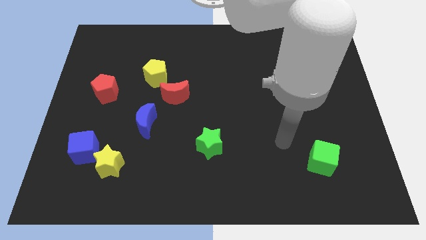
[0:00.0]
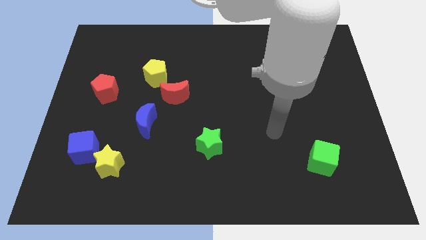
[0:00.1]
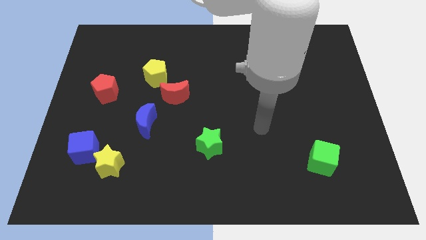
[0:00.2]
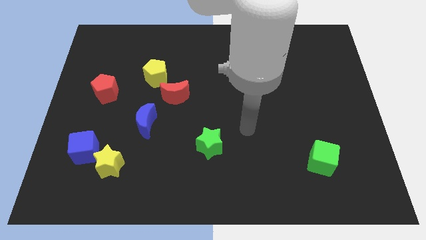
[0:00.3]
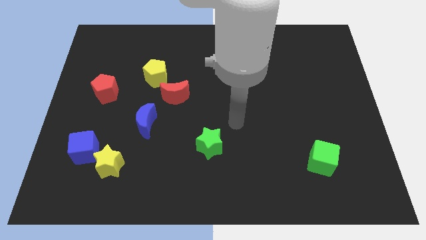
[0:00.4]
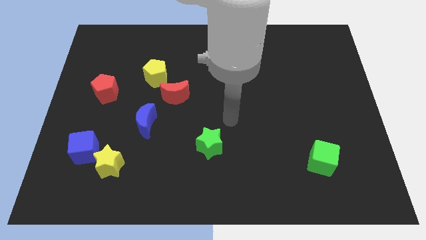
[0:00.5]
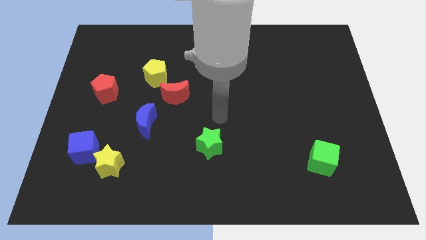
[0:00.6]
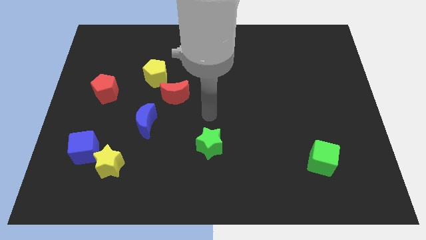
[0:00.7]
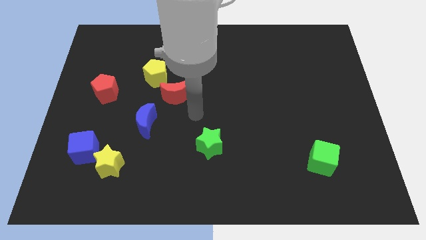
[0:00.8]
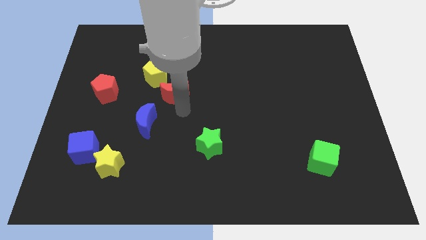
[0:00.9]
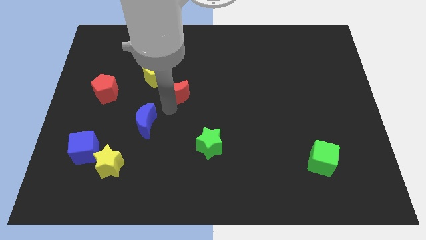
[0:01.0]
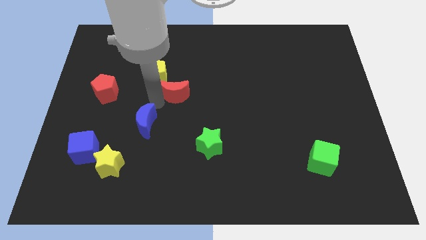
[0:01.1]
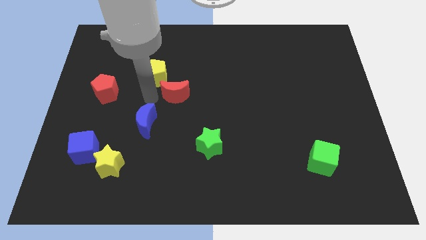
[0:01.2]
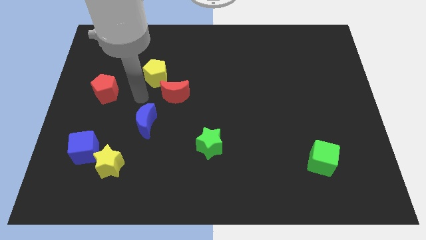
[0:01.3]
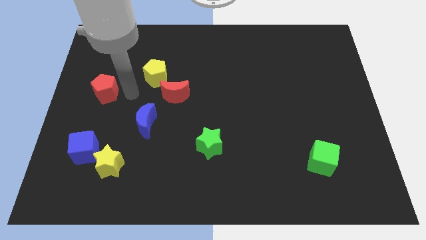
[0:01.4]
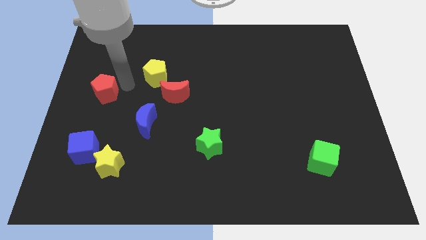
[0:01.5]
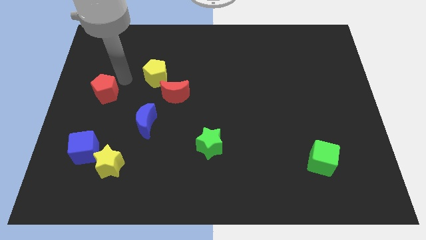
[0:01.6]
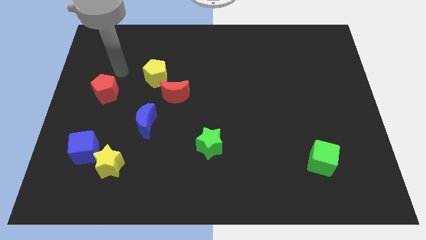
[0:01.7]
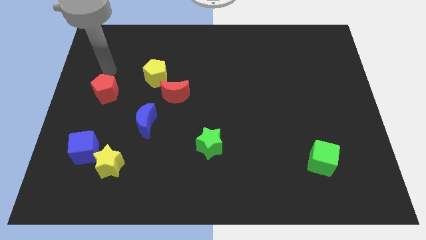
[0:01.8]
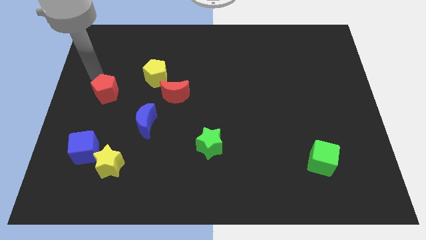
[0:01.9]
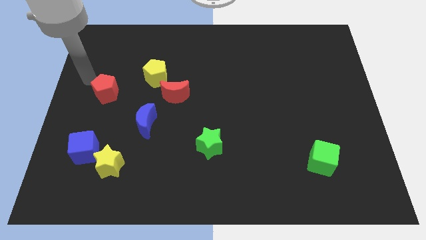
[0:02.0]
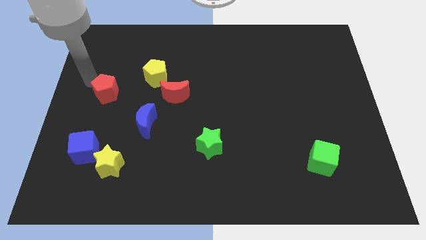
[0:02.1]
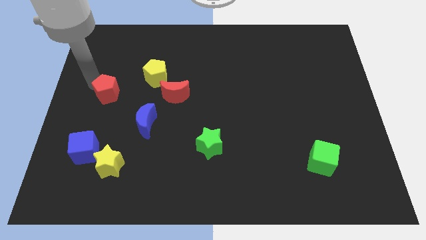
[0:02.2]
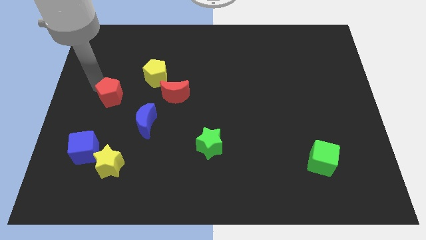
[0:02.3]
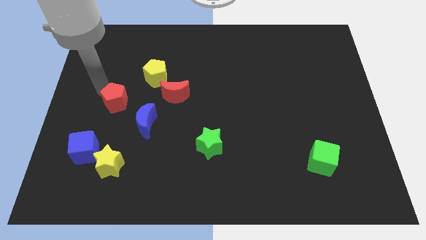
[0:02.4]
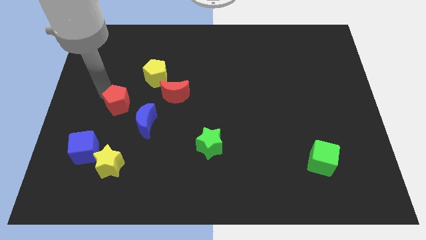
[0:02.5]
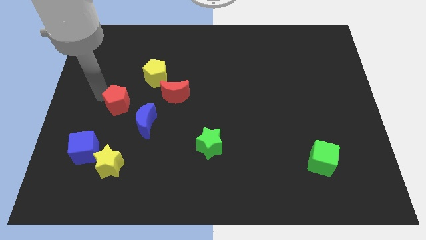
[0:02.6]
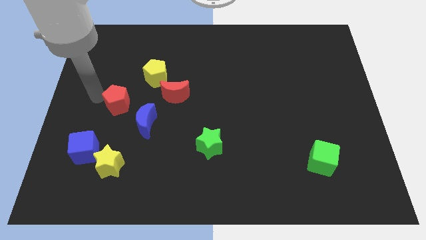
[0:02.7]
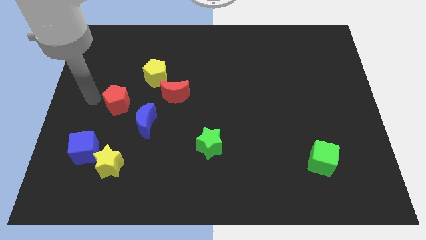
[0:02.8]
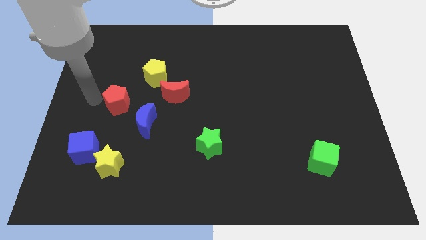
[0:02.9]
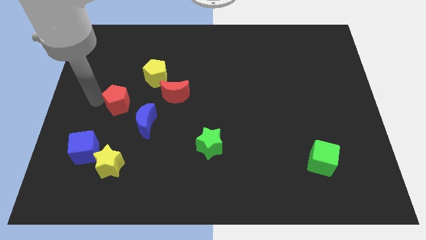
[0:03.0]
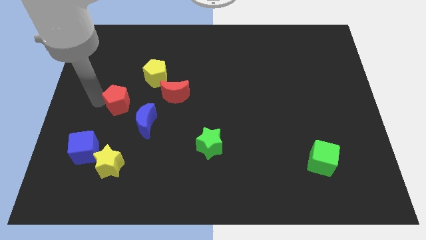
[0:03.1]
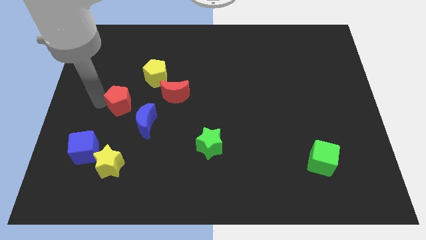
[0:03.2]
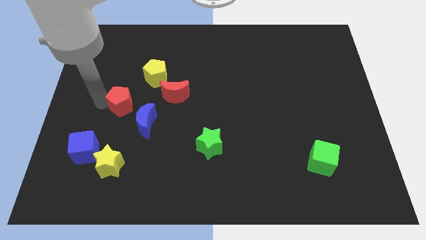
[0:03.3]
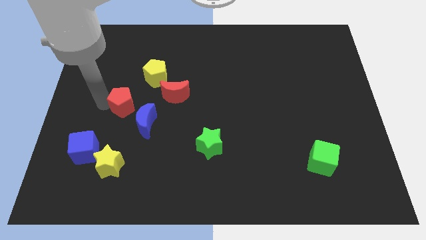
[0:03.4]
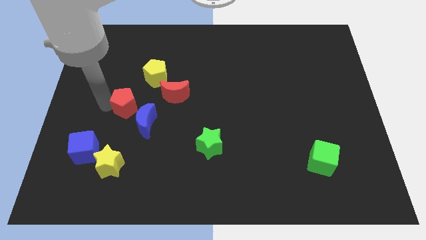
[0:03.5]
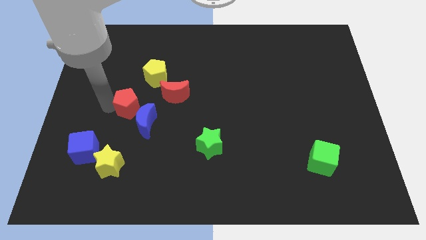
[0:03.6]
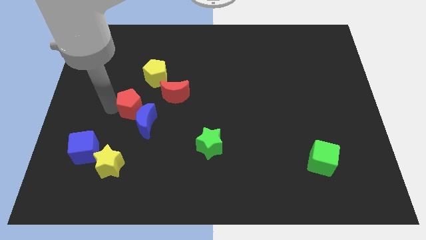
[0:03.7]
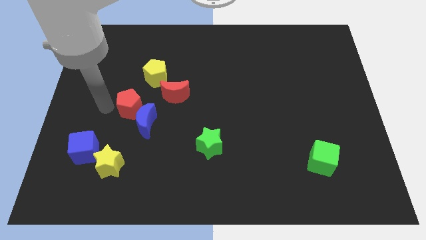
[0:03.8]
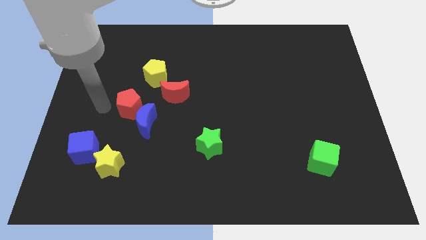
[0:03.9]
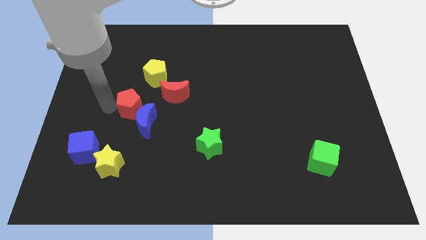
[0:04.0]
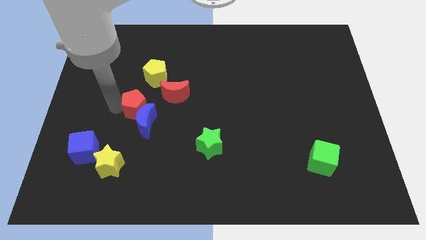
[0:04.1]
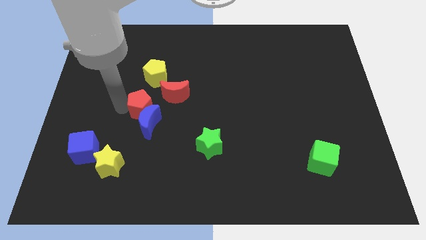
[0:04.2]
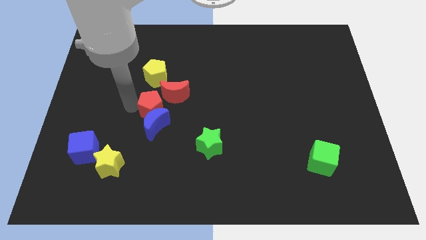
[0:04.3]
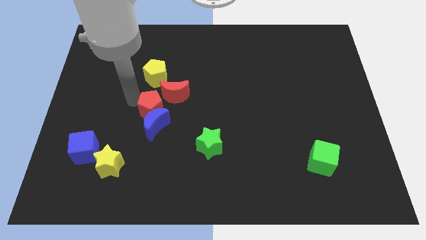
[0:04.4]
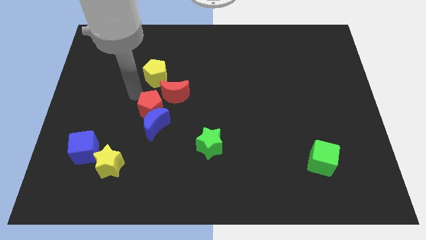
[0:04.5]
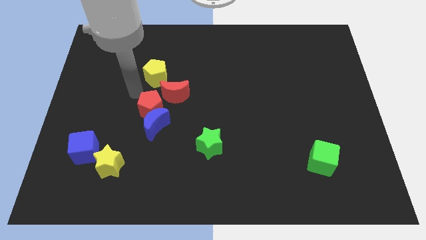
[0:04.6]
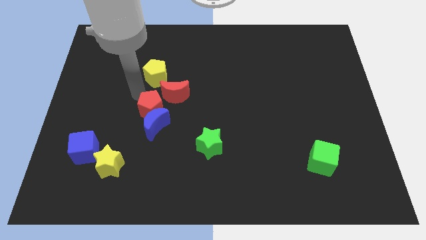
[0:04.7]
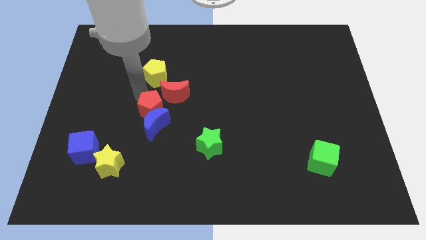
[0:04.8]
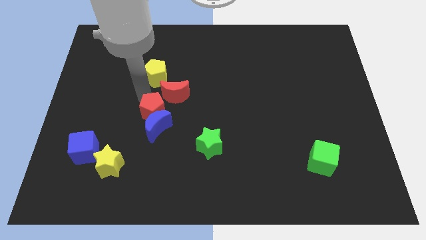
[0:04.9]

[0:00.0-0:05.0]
put the red pentagon below the red moon

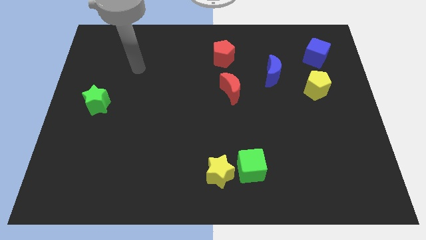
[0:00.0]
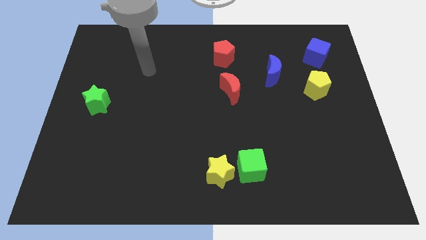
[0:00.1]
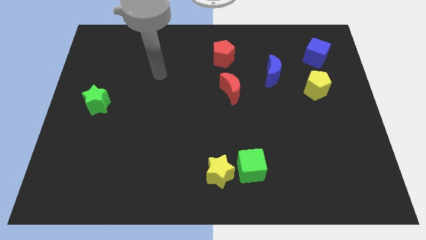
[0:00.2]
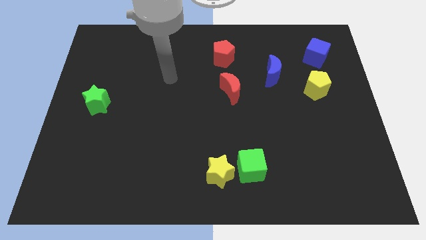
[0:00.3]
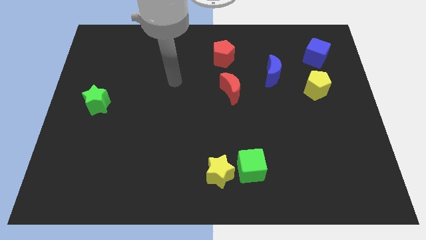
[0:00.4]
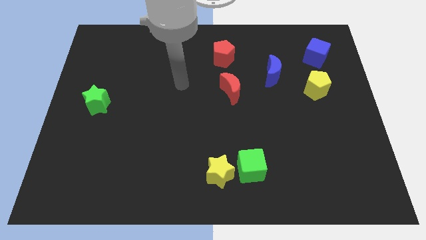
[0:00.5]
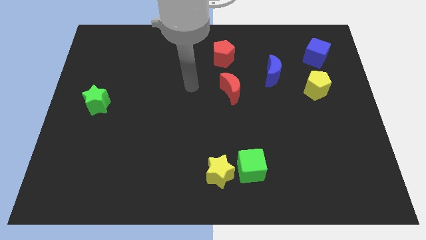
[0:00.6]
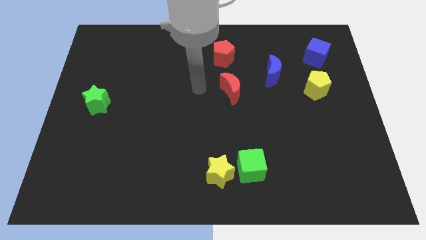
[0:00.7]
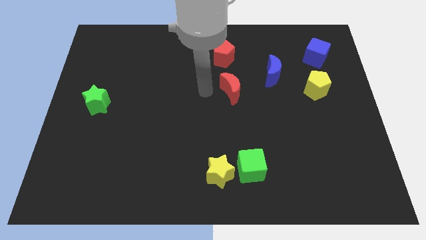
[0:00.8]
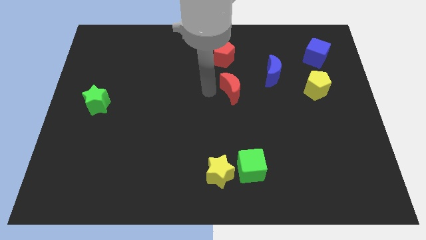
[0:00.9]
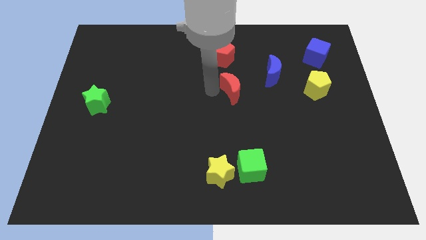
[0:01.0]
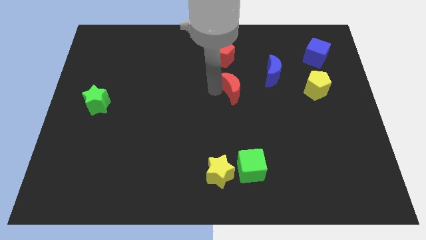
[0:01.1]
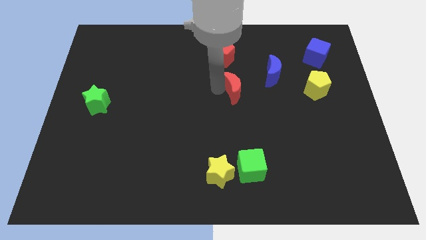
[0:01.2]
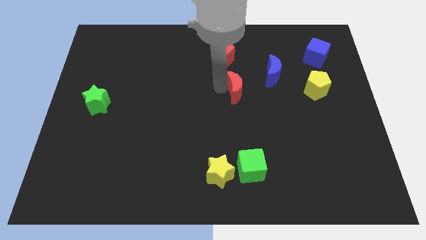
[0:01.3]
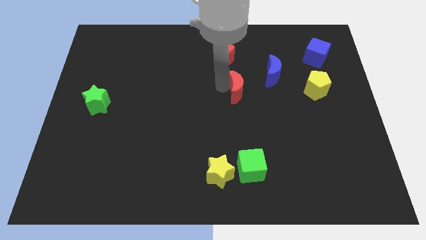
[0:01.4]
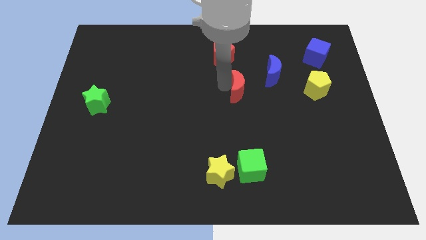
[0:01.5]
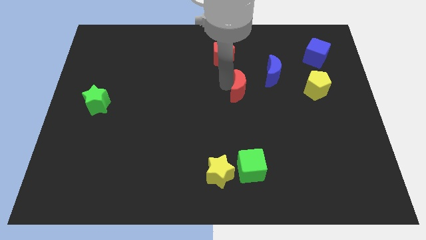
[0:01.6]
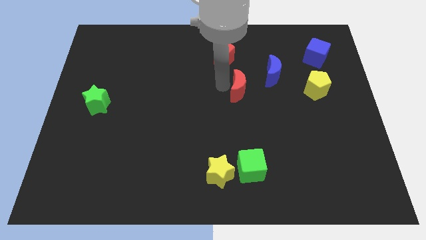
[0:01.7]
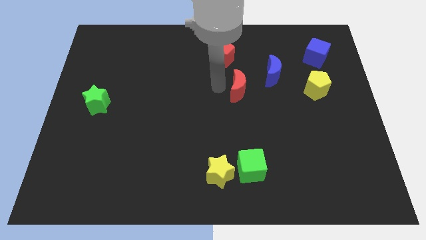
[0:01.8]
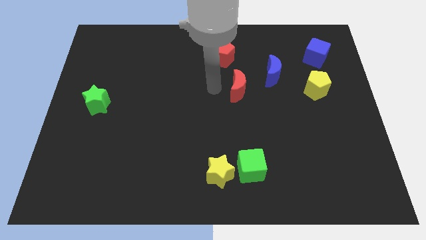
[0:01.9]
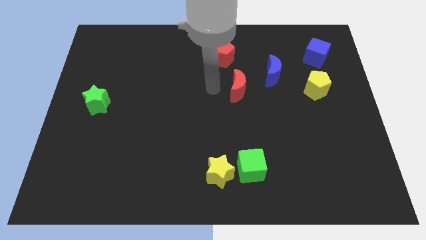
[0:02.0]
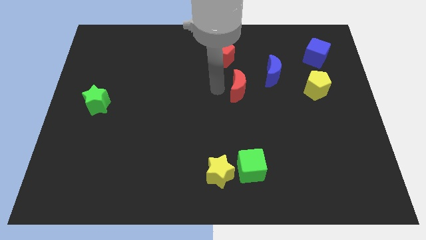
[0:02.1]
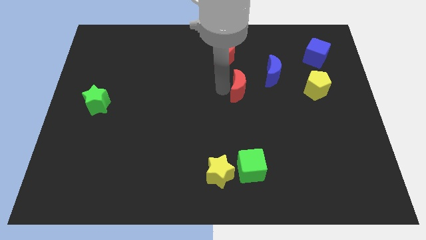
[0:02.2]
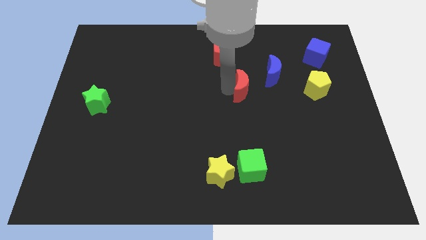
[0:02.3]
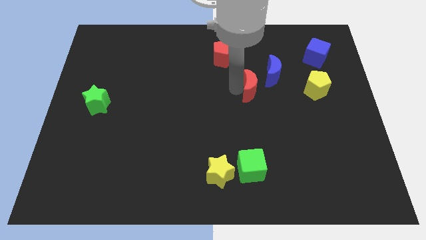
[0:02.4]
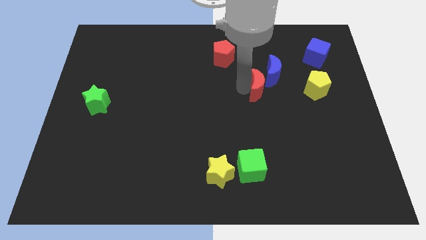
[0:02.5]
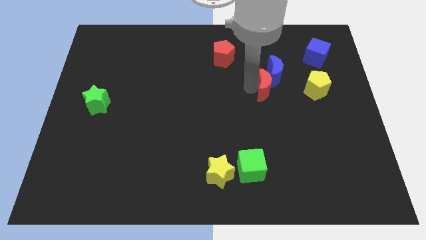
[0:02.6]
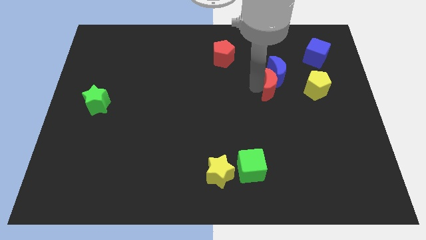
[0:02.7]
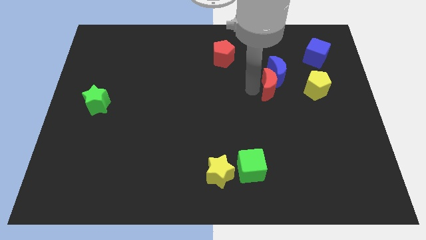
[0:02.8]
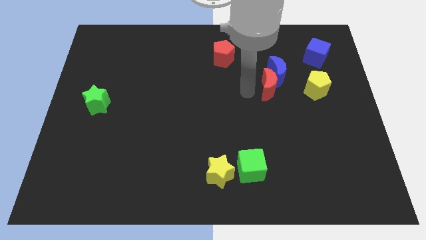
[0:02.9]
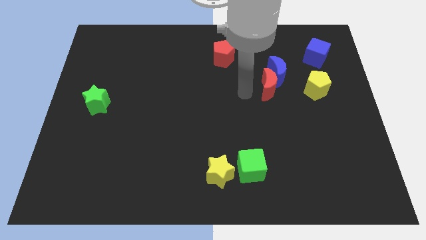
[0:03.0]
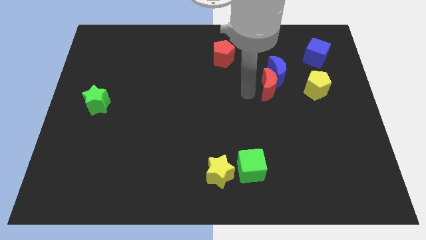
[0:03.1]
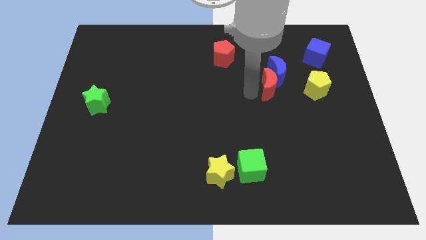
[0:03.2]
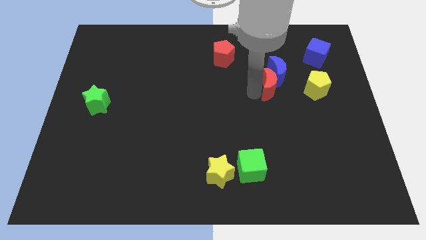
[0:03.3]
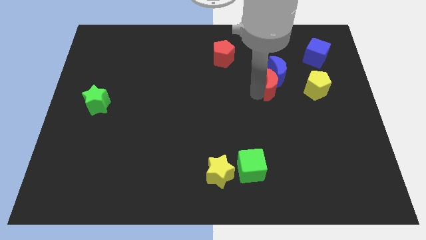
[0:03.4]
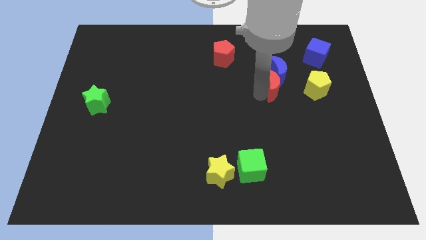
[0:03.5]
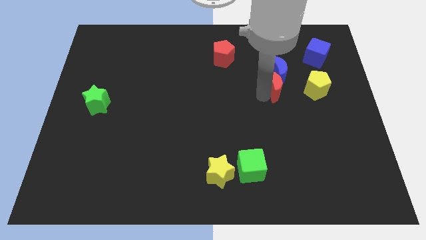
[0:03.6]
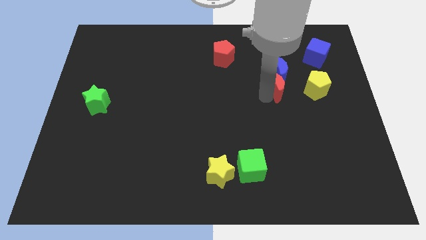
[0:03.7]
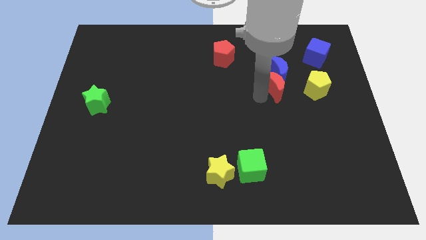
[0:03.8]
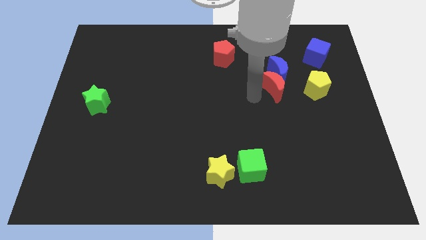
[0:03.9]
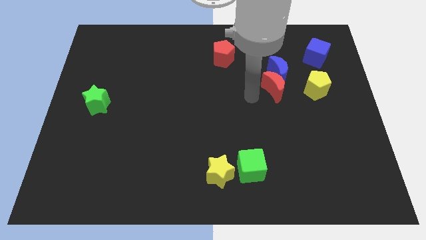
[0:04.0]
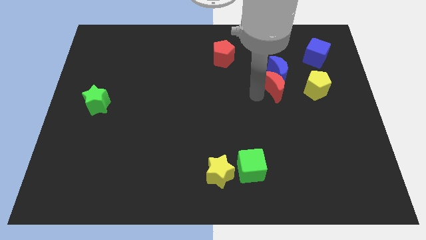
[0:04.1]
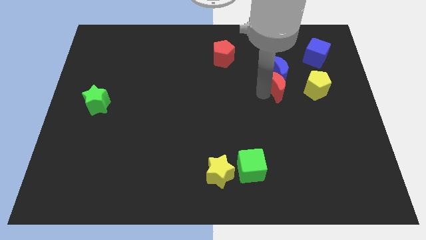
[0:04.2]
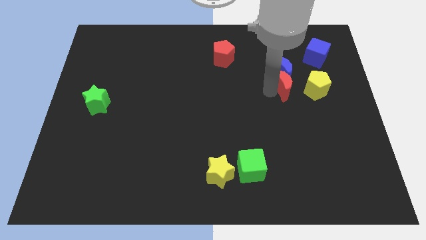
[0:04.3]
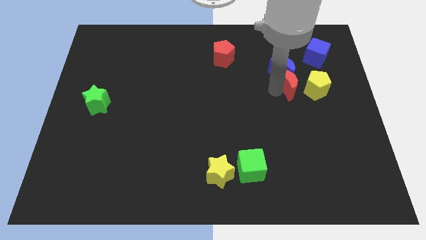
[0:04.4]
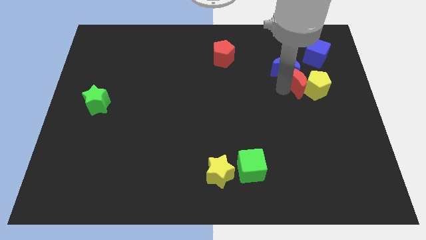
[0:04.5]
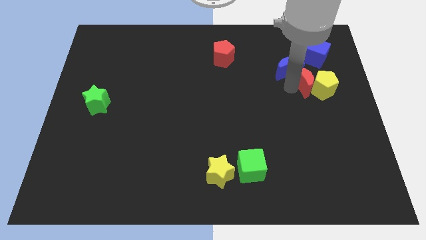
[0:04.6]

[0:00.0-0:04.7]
move the red moon to the right side of the blue moon
